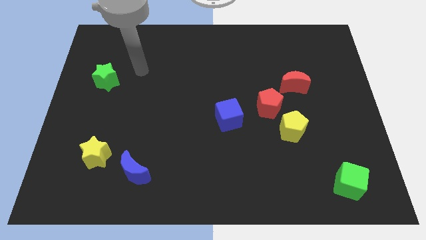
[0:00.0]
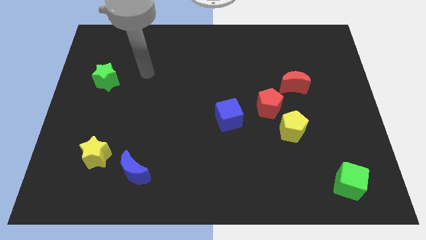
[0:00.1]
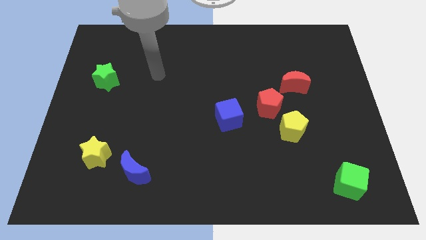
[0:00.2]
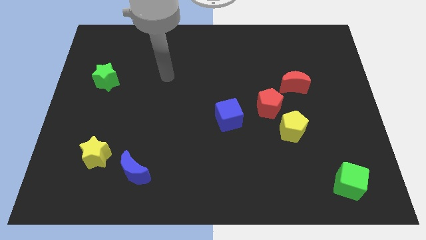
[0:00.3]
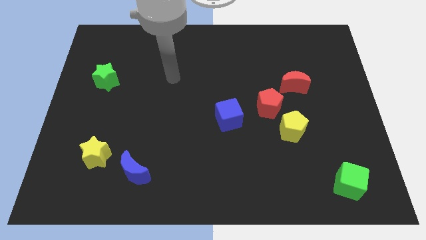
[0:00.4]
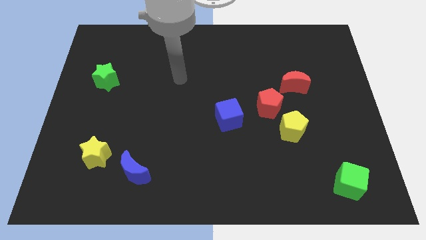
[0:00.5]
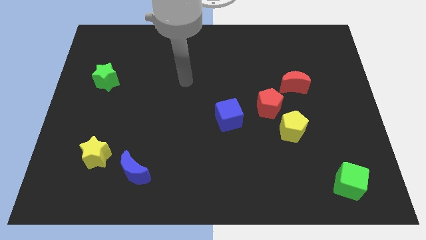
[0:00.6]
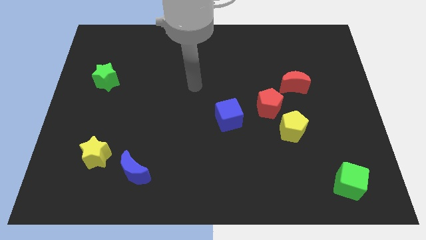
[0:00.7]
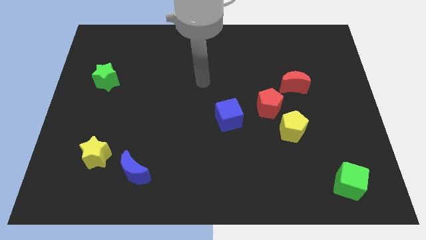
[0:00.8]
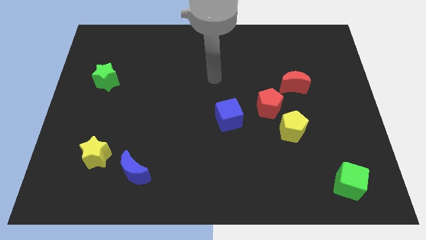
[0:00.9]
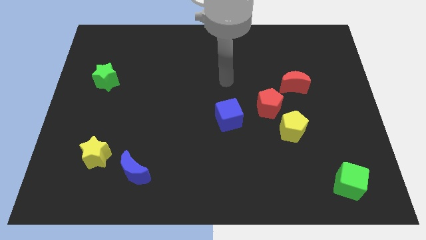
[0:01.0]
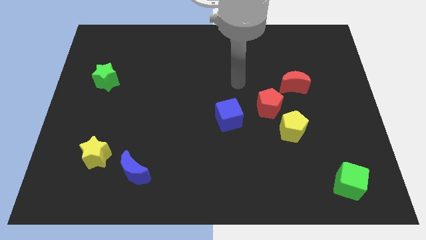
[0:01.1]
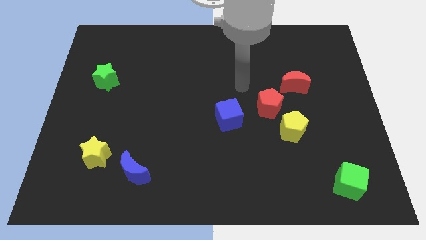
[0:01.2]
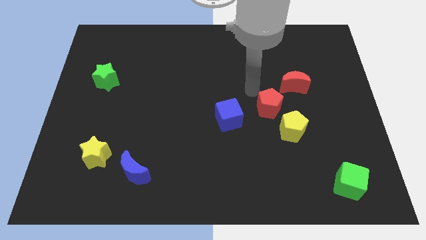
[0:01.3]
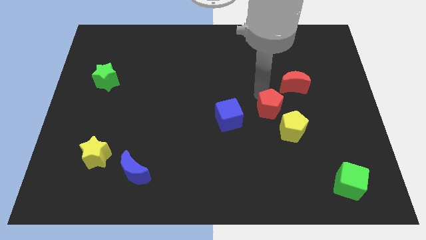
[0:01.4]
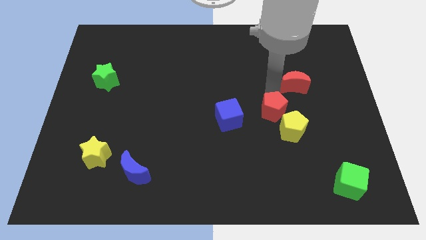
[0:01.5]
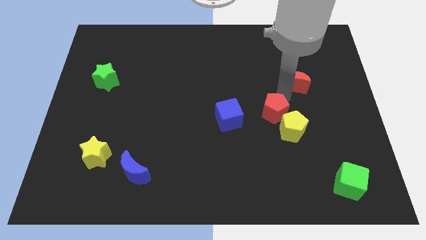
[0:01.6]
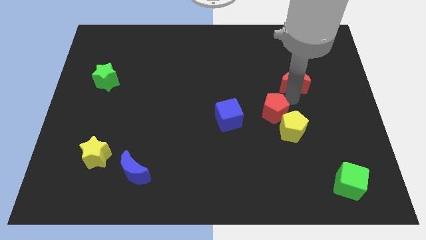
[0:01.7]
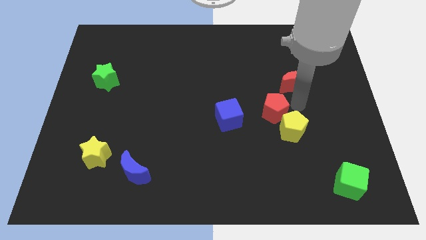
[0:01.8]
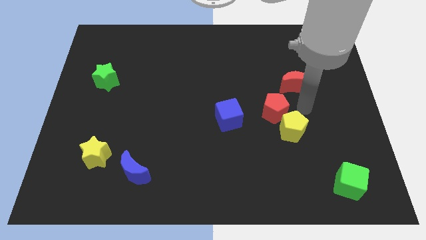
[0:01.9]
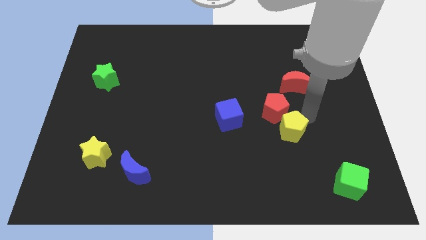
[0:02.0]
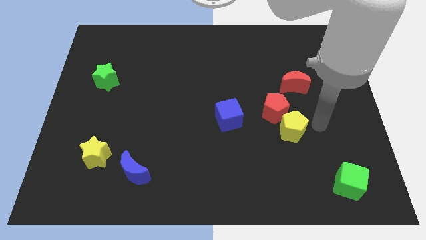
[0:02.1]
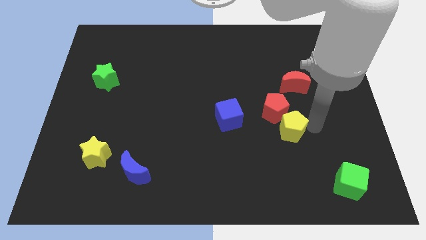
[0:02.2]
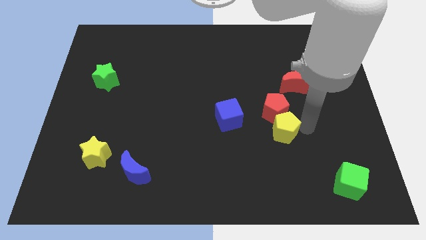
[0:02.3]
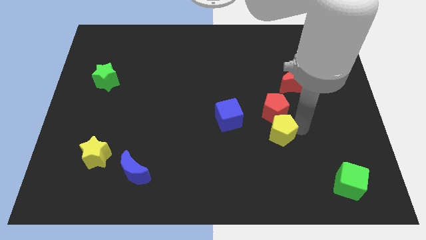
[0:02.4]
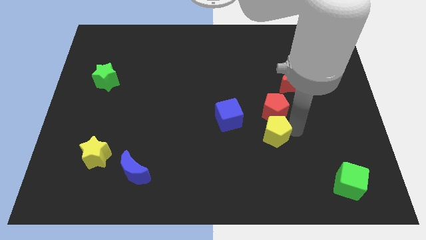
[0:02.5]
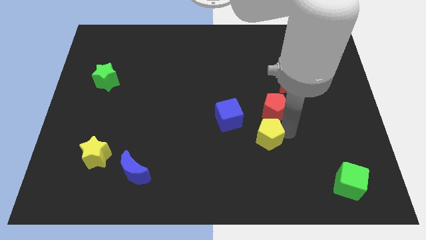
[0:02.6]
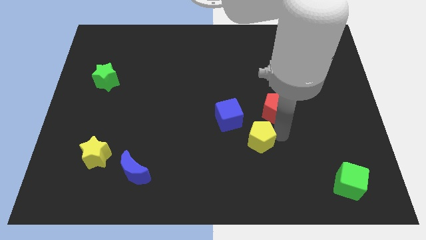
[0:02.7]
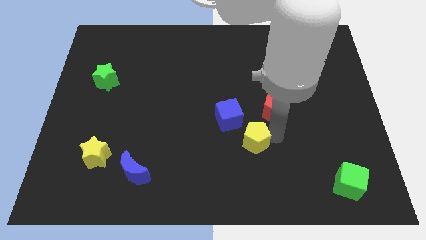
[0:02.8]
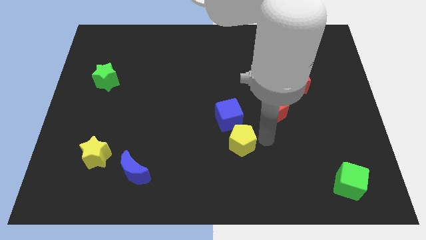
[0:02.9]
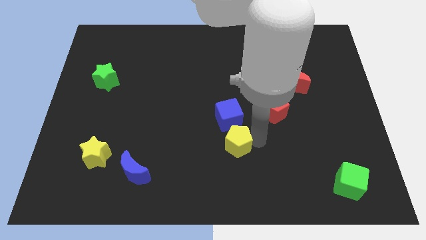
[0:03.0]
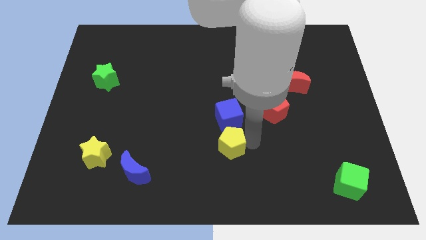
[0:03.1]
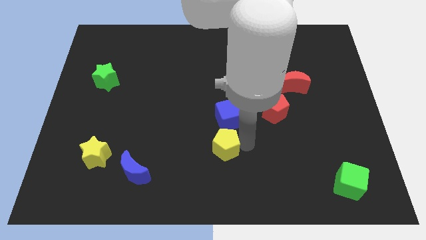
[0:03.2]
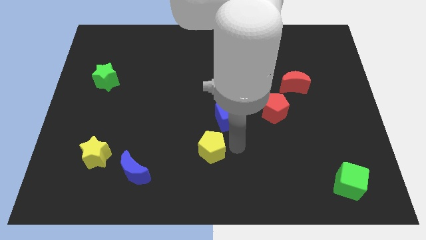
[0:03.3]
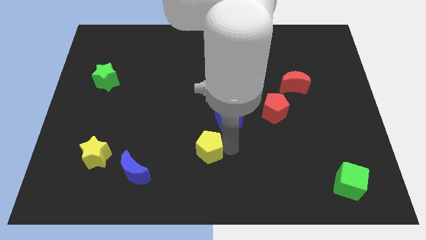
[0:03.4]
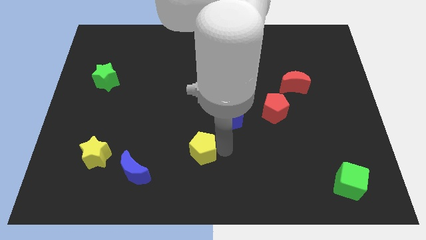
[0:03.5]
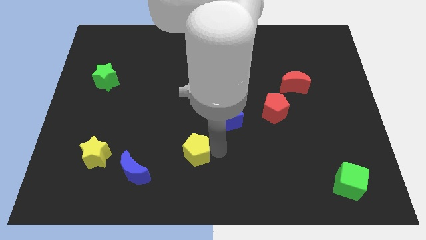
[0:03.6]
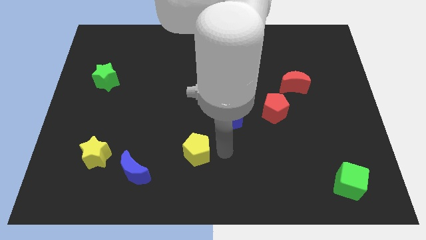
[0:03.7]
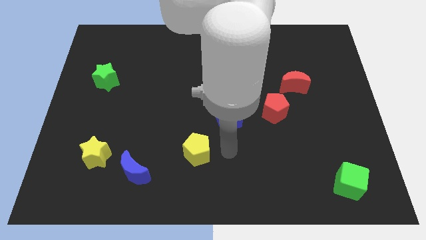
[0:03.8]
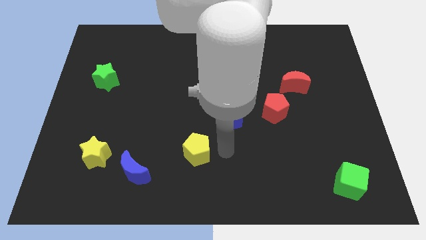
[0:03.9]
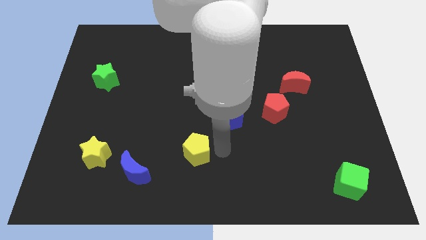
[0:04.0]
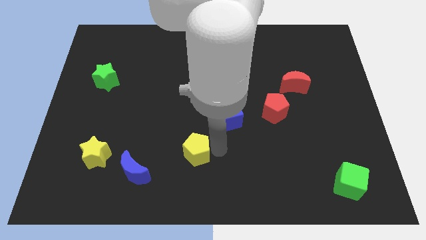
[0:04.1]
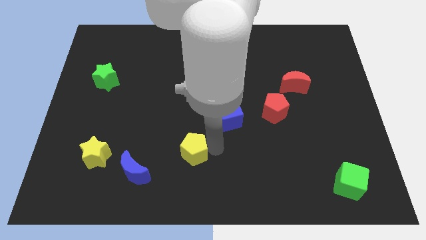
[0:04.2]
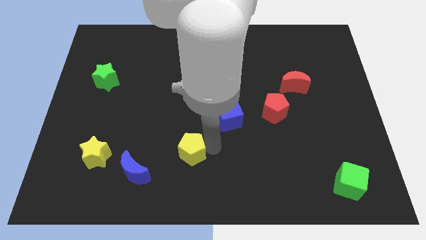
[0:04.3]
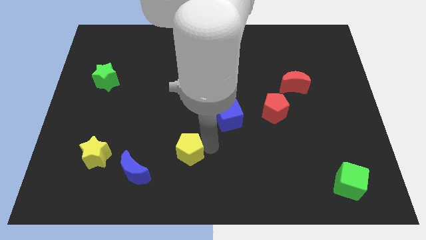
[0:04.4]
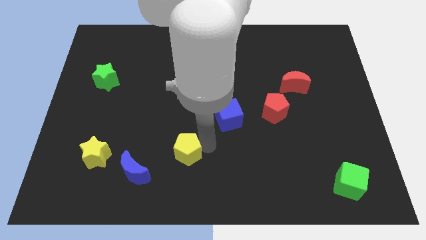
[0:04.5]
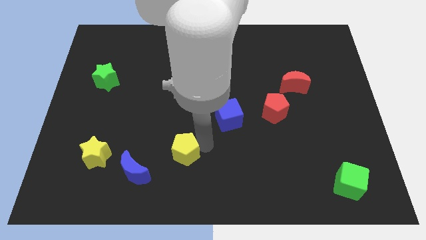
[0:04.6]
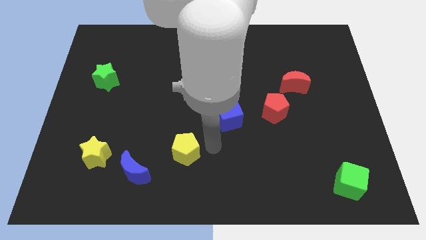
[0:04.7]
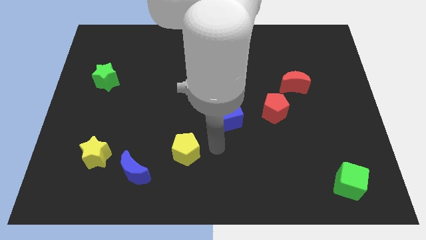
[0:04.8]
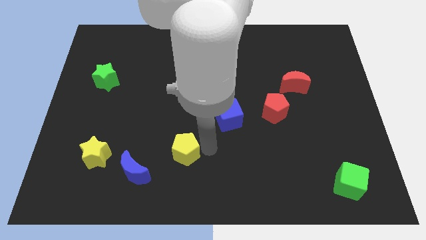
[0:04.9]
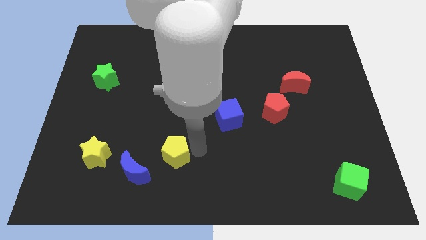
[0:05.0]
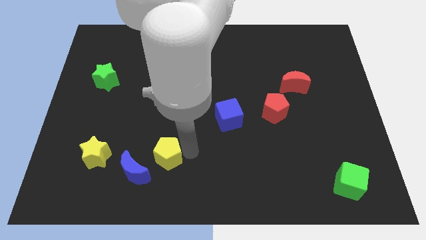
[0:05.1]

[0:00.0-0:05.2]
slide the yellow pentagon to the right of the yellow star

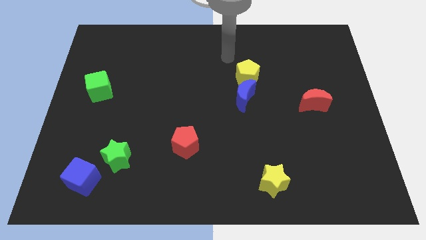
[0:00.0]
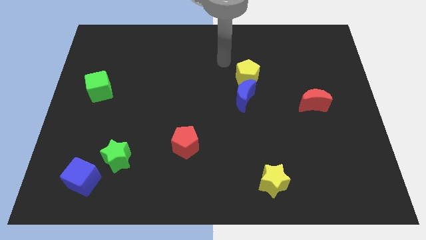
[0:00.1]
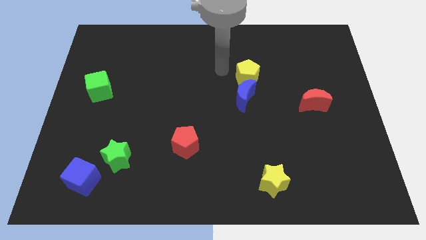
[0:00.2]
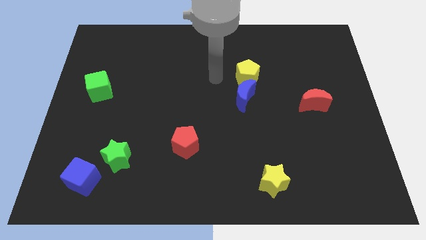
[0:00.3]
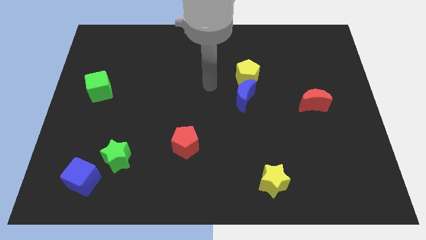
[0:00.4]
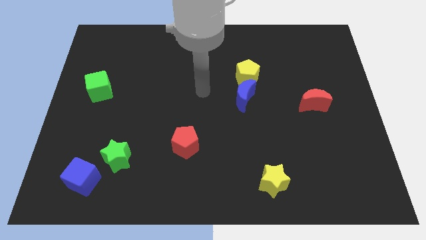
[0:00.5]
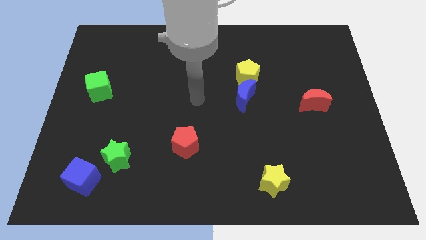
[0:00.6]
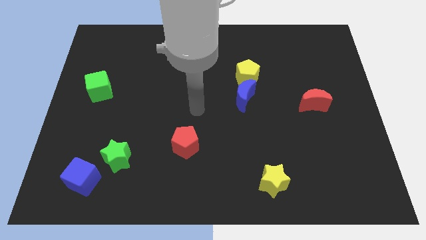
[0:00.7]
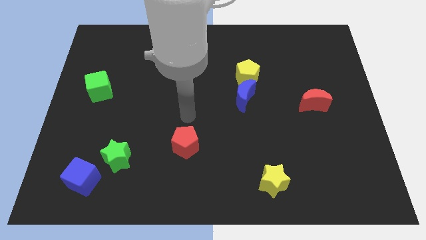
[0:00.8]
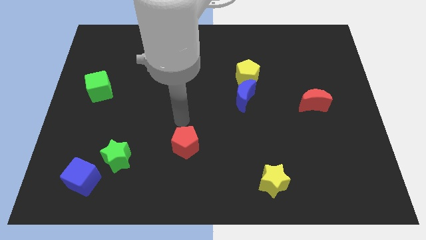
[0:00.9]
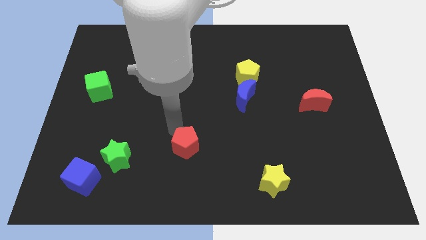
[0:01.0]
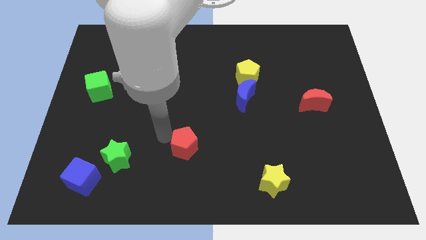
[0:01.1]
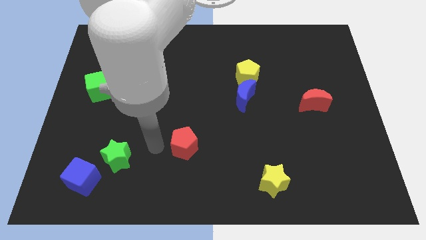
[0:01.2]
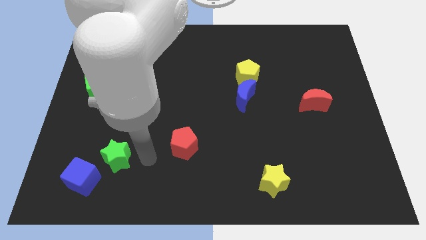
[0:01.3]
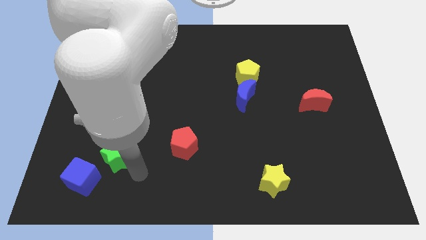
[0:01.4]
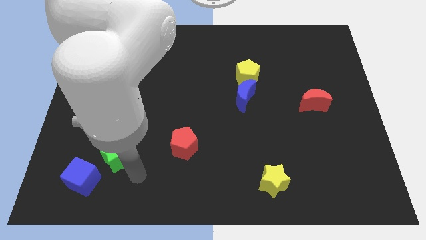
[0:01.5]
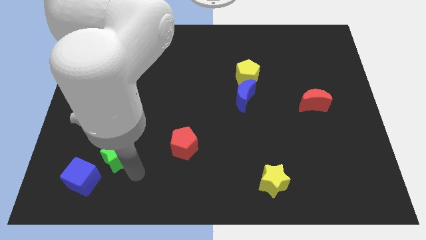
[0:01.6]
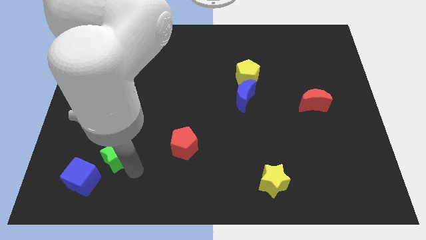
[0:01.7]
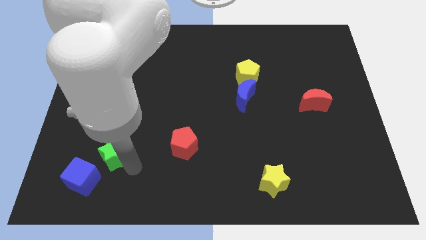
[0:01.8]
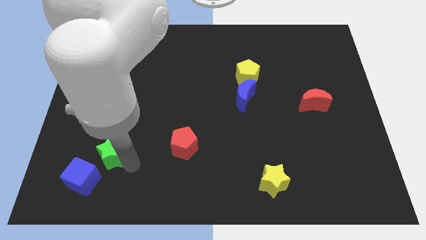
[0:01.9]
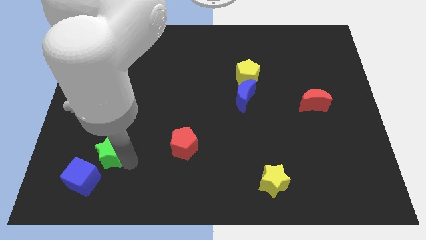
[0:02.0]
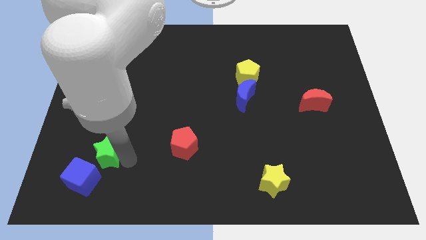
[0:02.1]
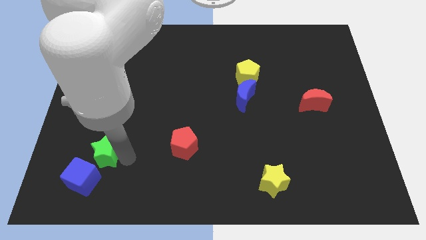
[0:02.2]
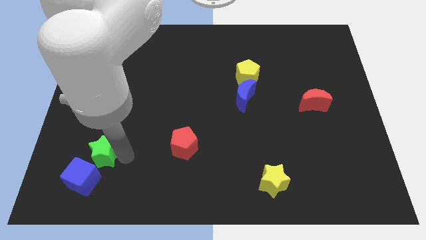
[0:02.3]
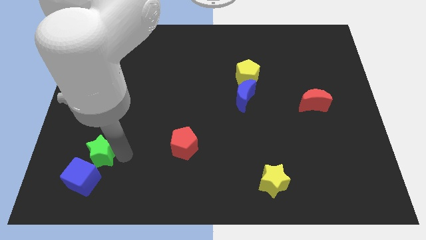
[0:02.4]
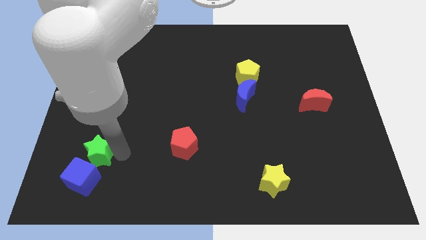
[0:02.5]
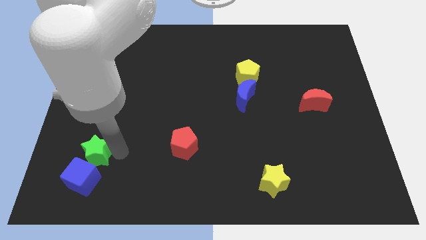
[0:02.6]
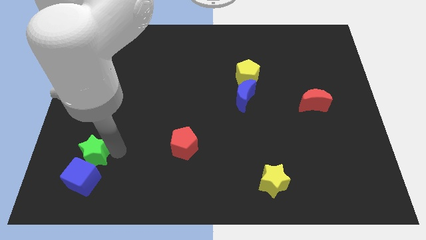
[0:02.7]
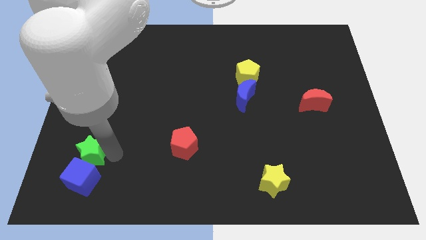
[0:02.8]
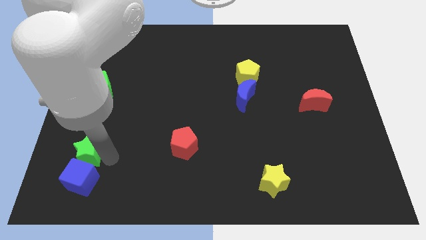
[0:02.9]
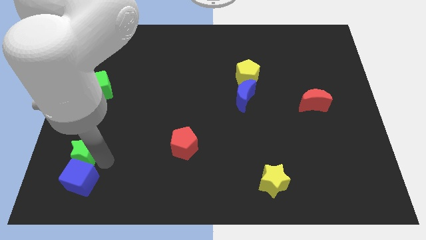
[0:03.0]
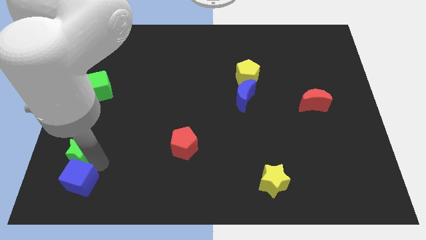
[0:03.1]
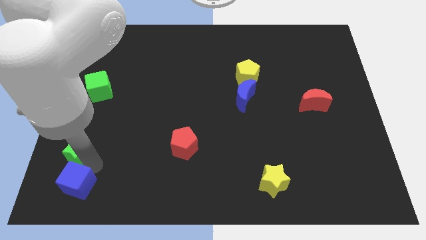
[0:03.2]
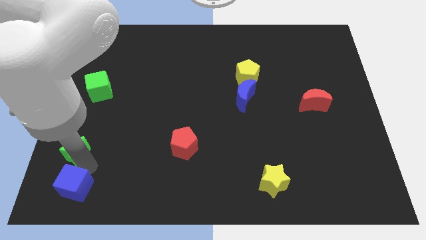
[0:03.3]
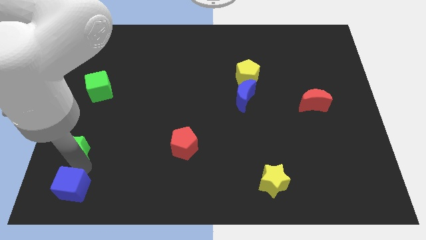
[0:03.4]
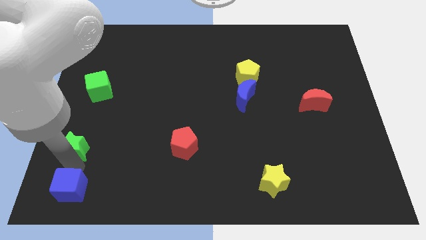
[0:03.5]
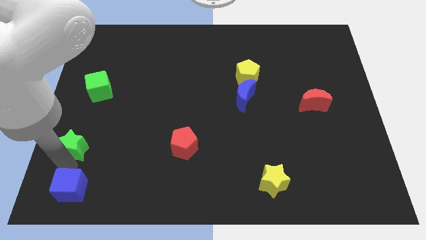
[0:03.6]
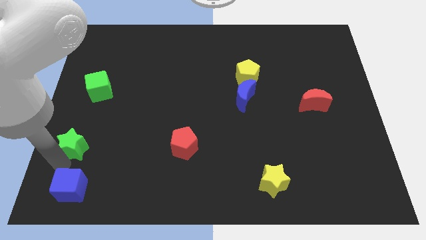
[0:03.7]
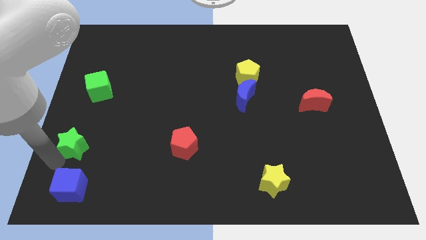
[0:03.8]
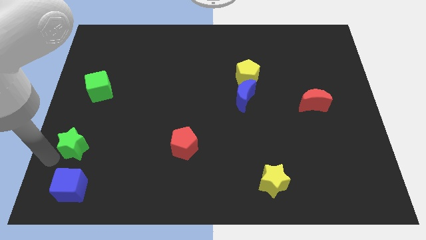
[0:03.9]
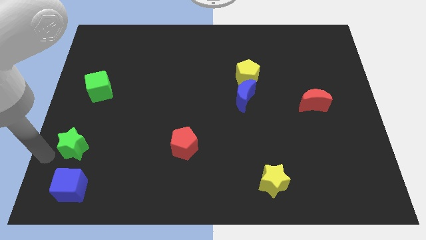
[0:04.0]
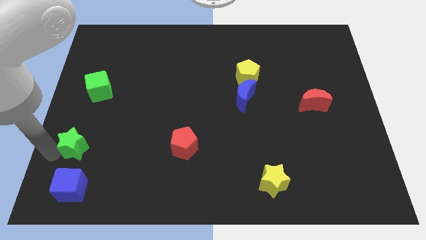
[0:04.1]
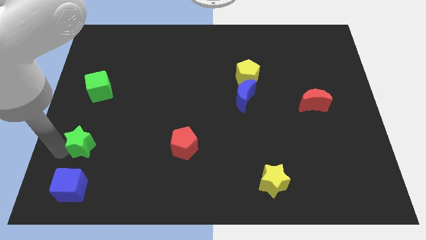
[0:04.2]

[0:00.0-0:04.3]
slide the green star to the bottom side of the green cube
